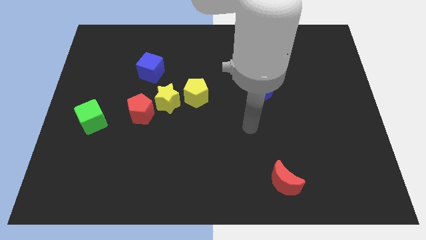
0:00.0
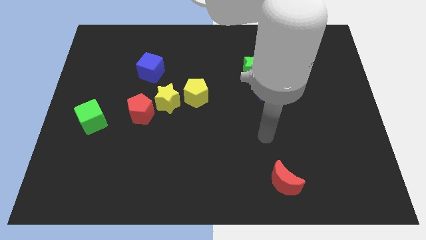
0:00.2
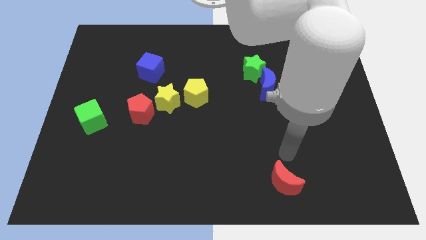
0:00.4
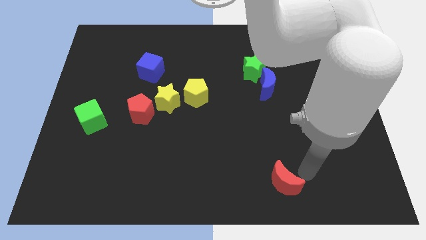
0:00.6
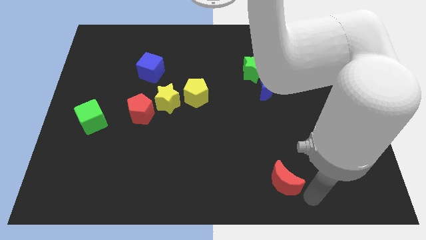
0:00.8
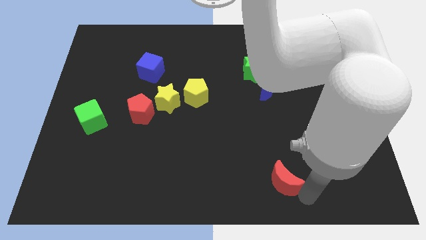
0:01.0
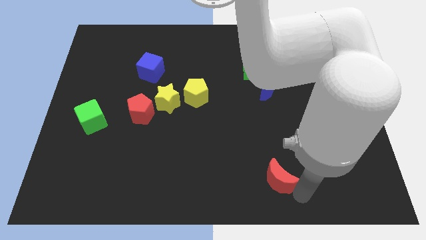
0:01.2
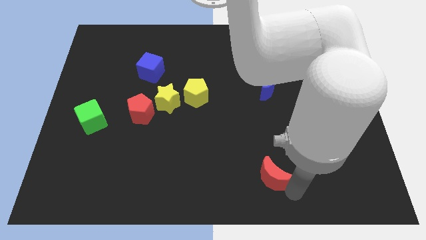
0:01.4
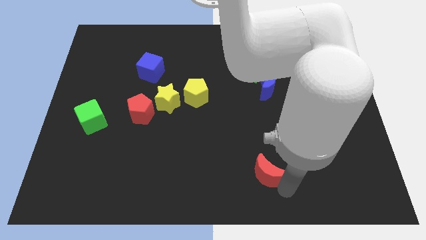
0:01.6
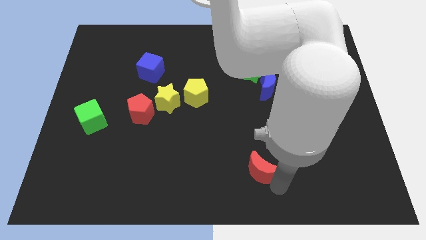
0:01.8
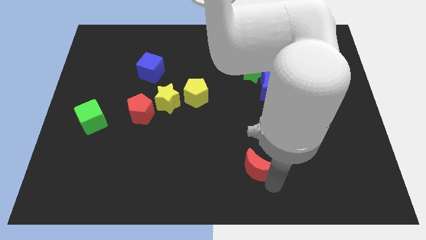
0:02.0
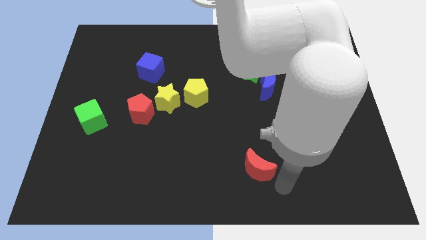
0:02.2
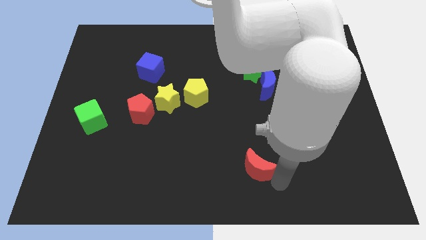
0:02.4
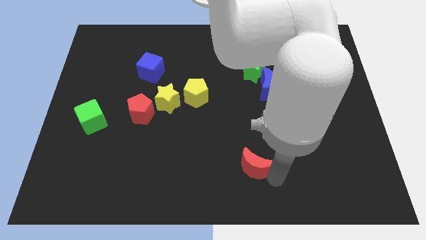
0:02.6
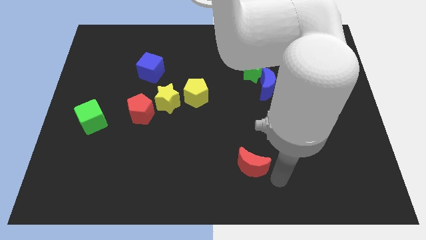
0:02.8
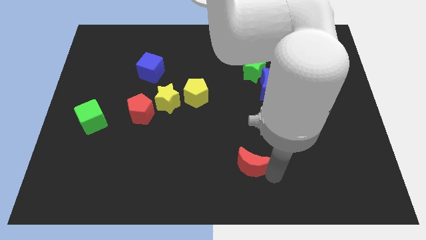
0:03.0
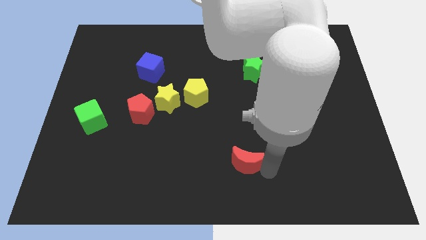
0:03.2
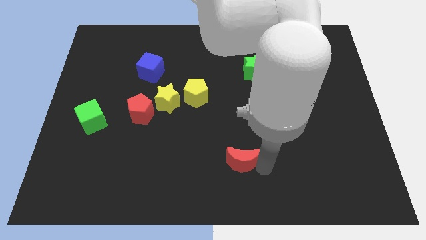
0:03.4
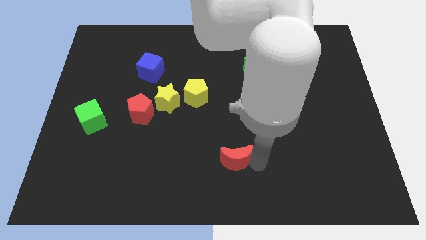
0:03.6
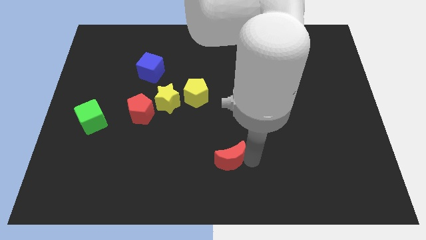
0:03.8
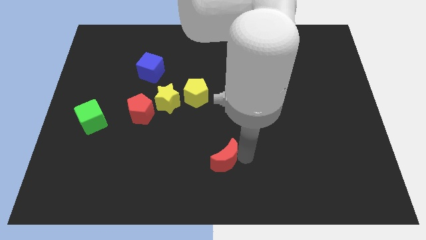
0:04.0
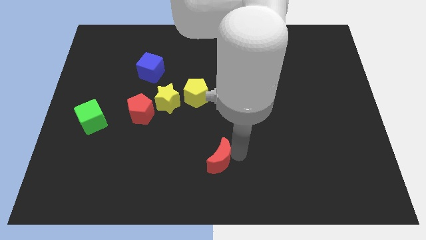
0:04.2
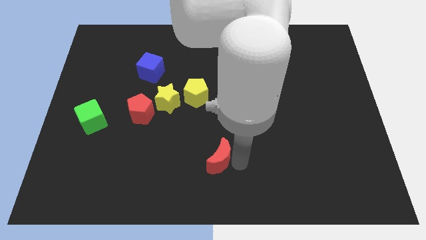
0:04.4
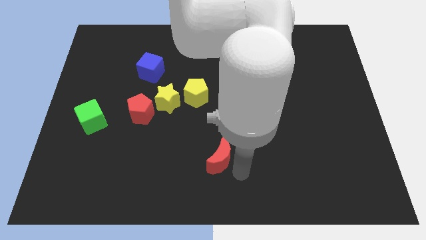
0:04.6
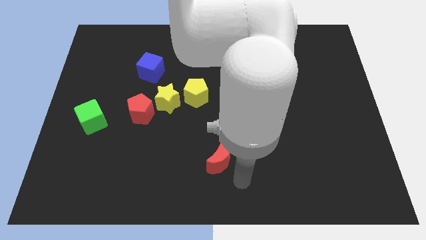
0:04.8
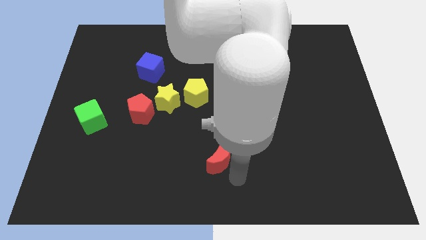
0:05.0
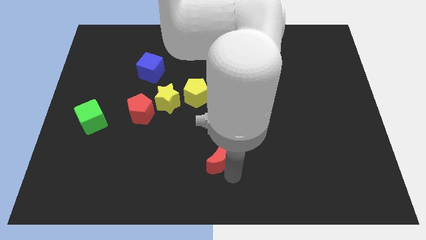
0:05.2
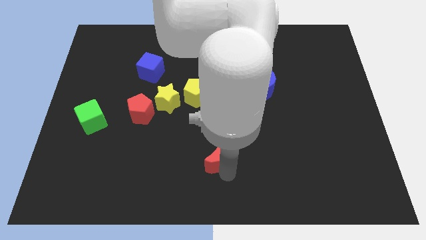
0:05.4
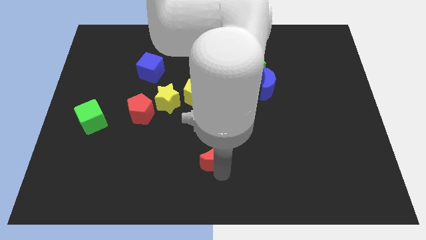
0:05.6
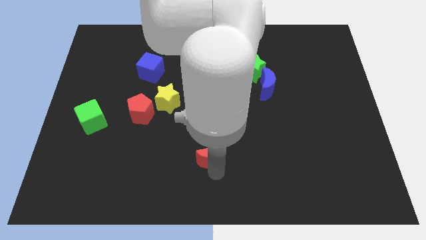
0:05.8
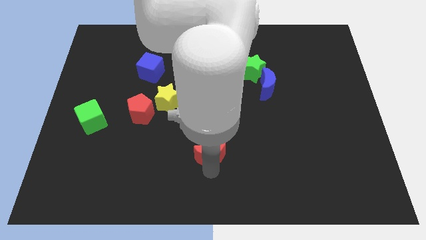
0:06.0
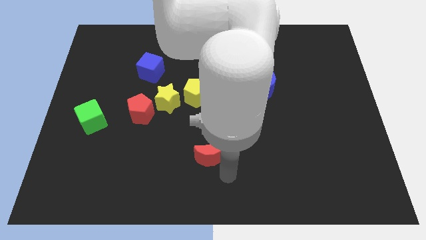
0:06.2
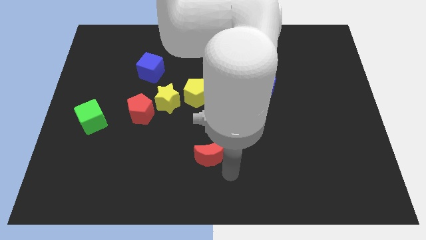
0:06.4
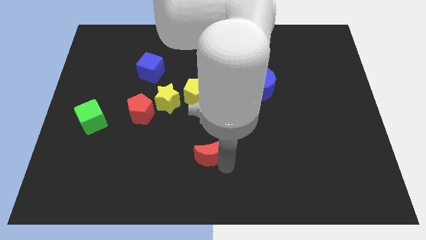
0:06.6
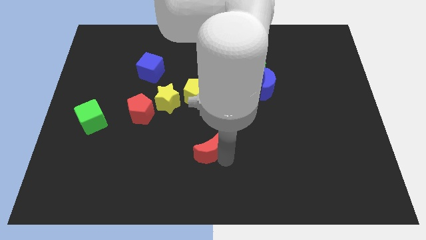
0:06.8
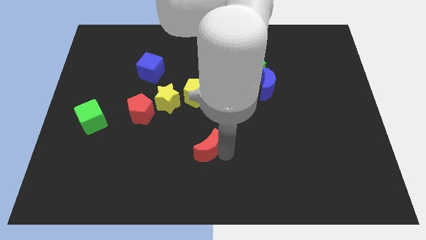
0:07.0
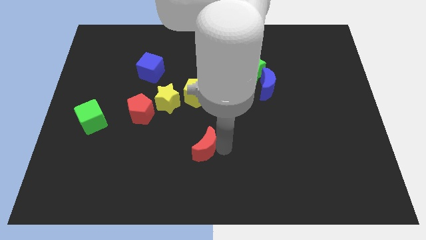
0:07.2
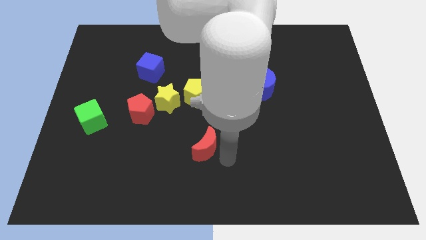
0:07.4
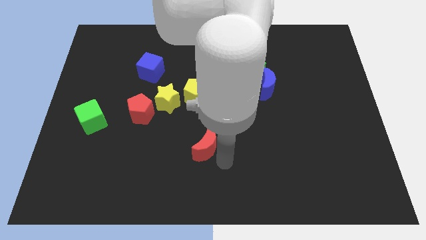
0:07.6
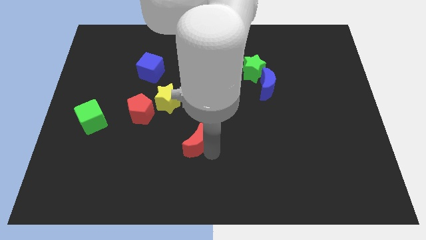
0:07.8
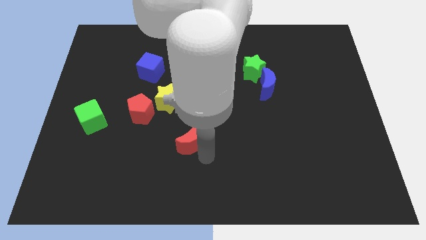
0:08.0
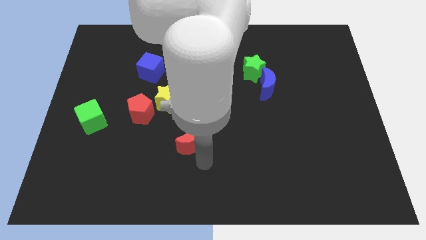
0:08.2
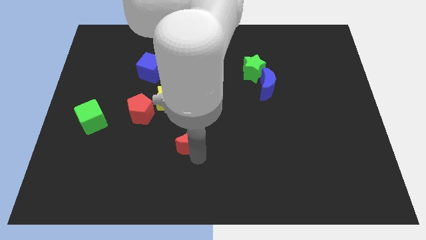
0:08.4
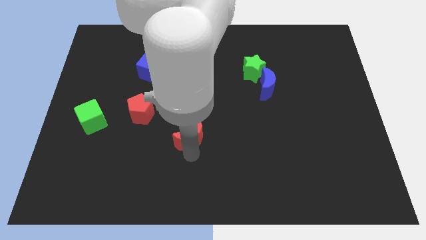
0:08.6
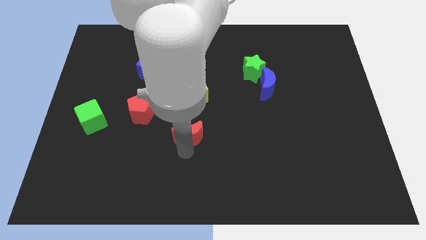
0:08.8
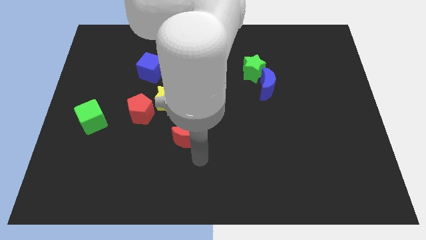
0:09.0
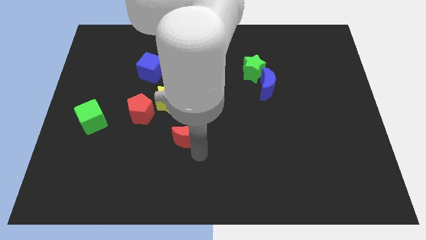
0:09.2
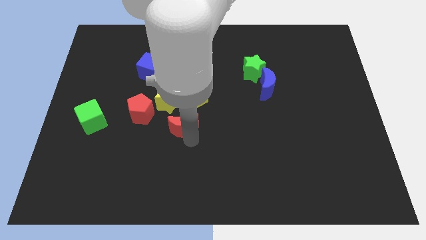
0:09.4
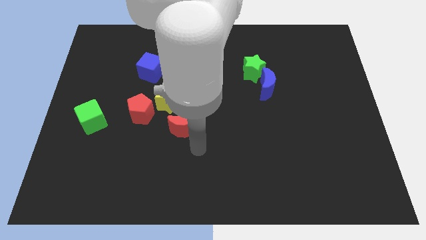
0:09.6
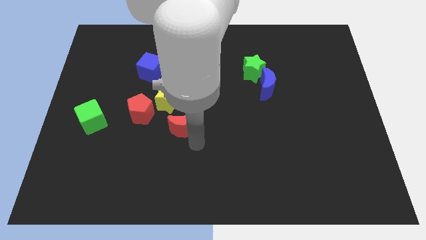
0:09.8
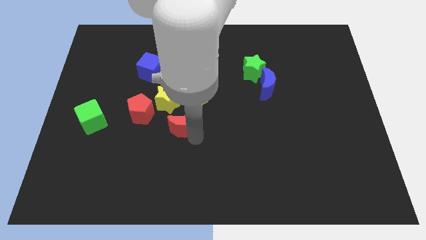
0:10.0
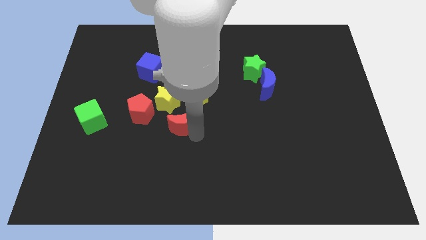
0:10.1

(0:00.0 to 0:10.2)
move the red moon to the bottom left of the yellow pentagon

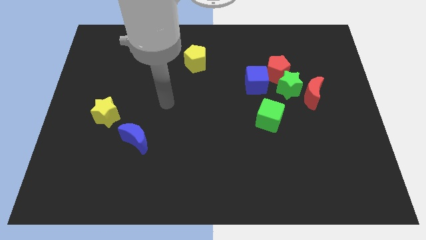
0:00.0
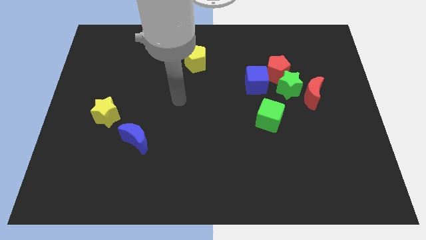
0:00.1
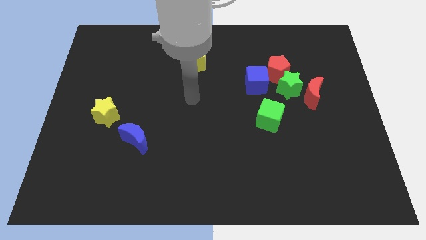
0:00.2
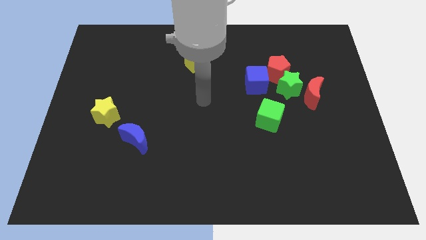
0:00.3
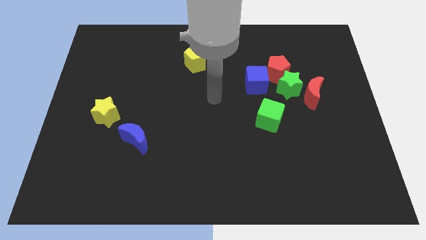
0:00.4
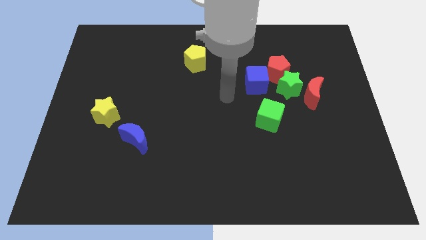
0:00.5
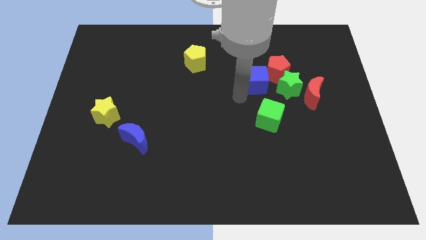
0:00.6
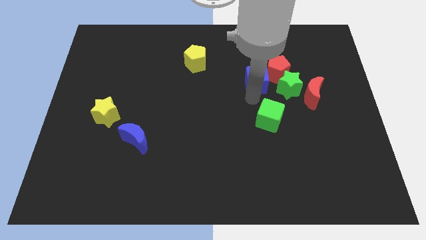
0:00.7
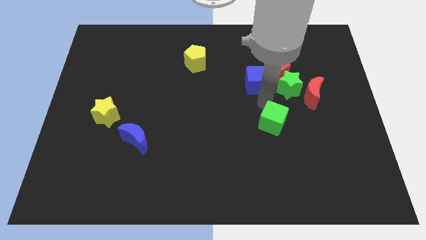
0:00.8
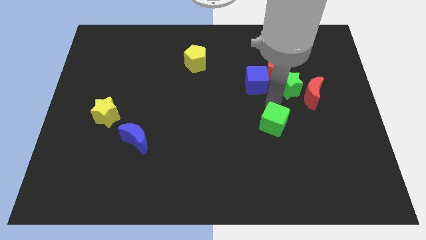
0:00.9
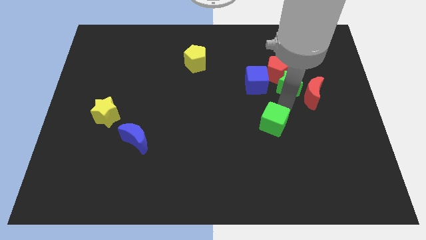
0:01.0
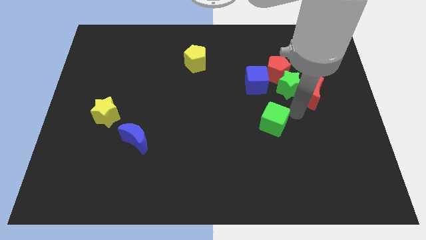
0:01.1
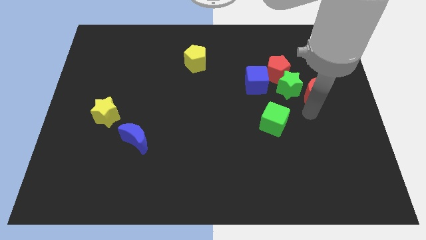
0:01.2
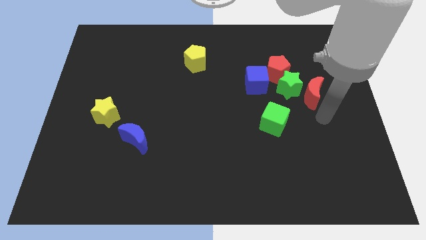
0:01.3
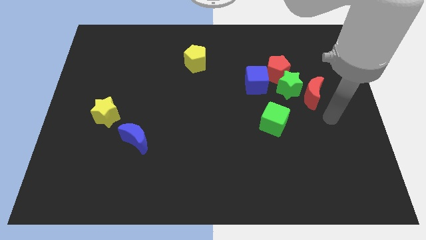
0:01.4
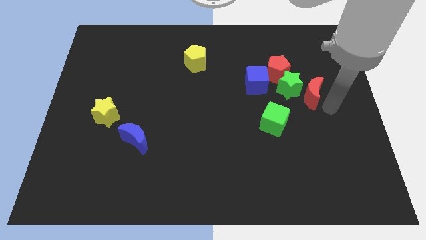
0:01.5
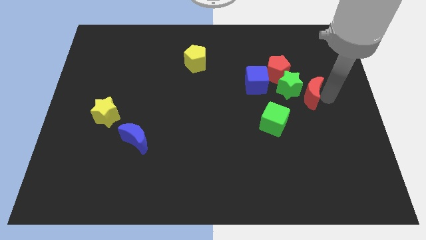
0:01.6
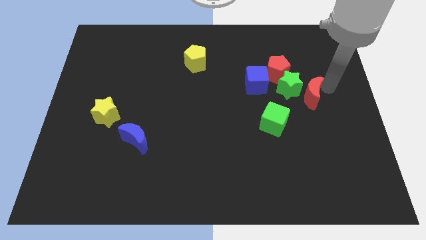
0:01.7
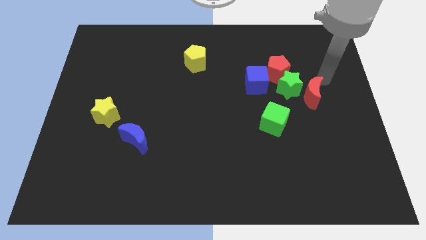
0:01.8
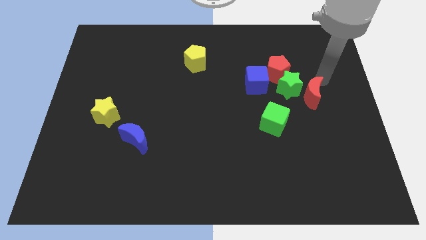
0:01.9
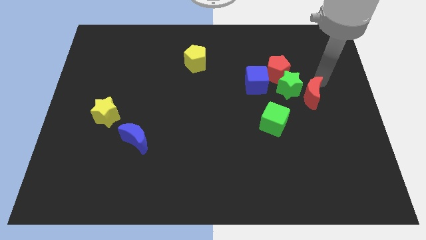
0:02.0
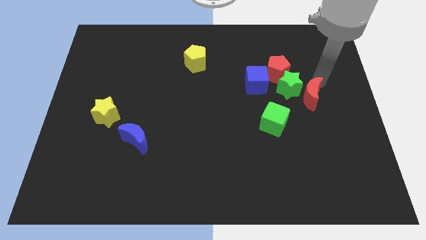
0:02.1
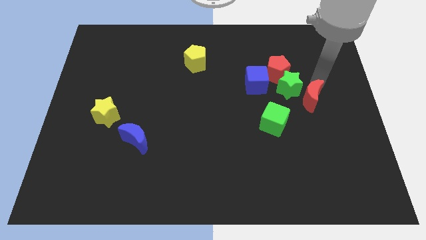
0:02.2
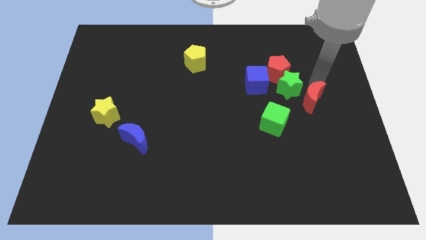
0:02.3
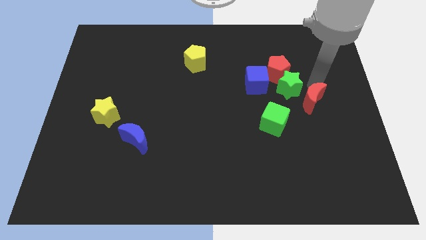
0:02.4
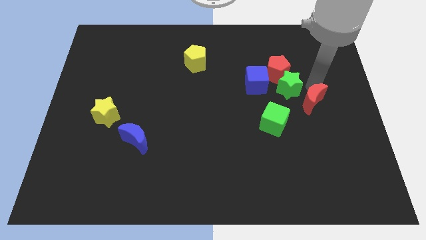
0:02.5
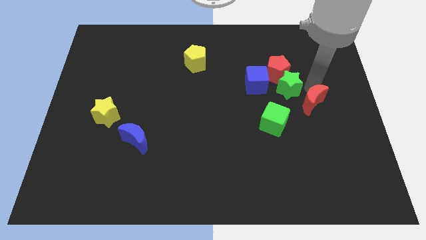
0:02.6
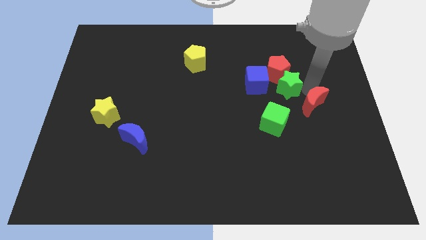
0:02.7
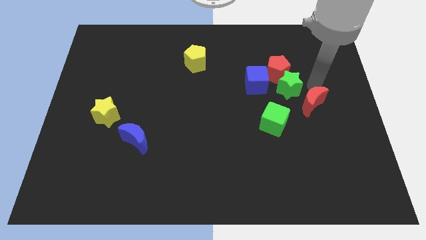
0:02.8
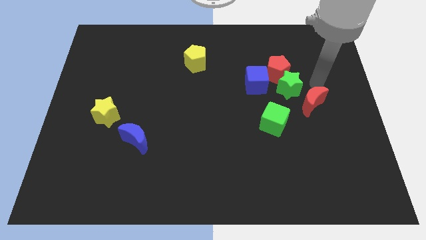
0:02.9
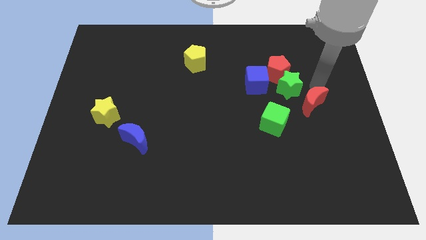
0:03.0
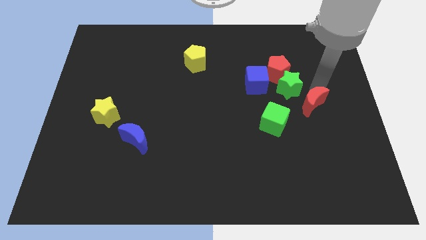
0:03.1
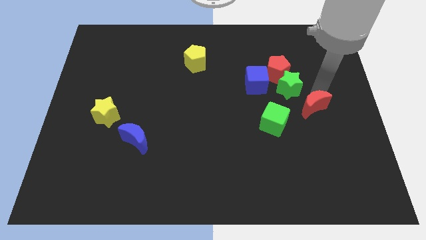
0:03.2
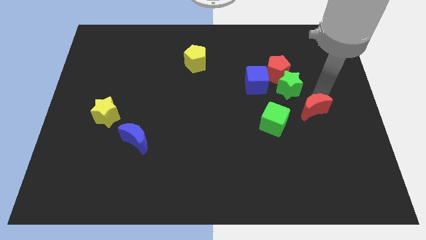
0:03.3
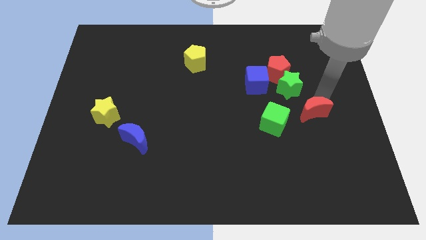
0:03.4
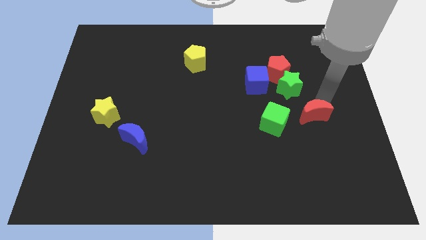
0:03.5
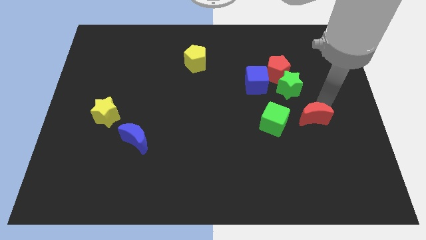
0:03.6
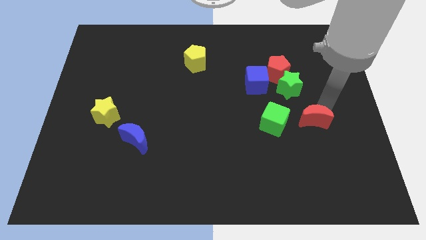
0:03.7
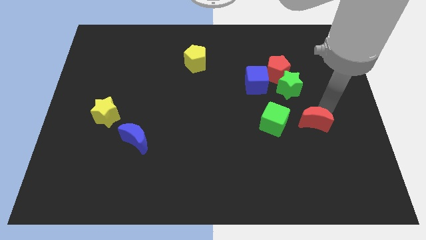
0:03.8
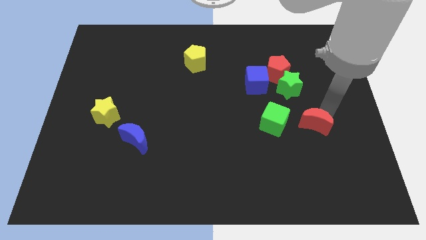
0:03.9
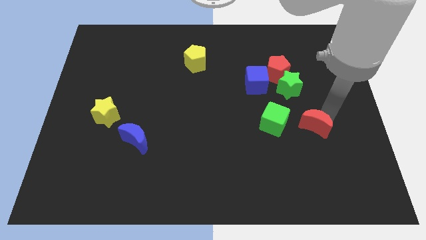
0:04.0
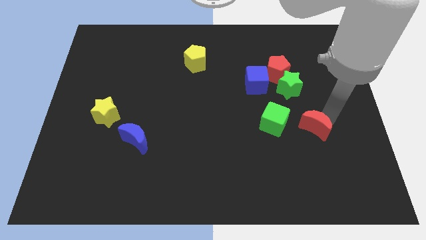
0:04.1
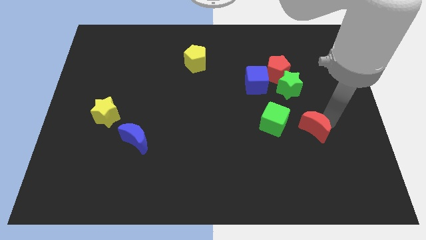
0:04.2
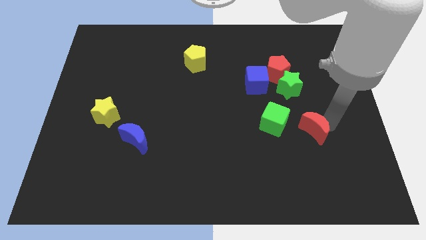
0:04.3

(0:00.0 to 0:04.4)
put the red moon to the bottom right of the green cube
